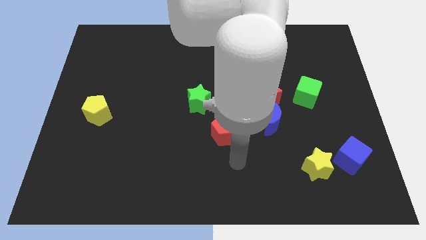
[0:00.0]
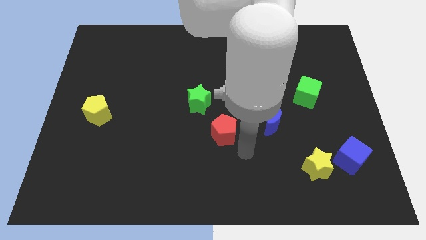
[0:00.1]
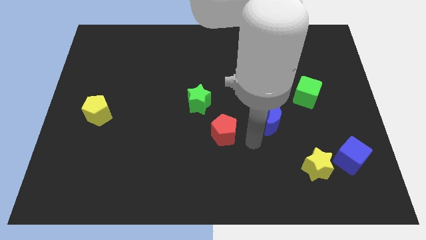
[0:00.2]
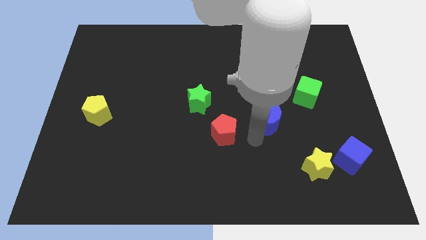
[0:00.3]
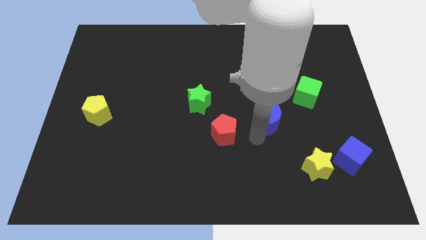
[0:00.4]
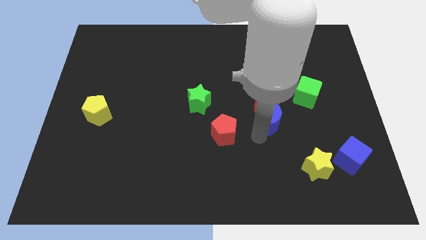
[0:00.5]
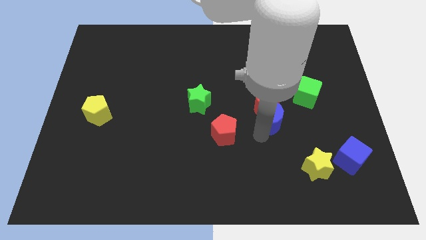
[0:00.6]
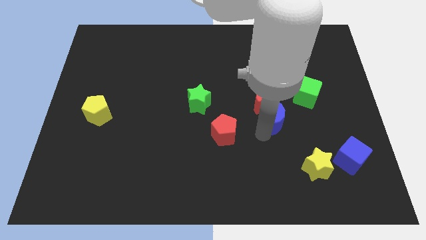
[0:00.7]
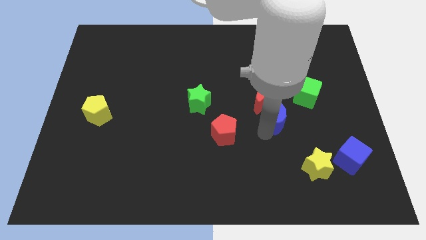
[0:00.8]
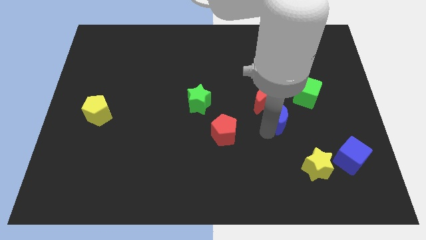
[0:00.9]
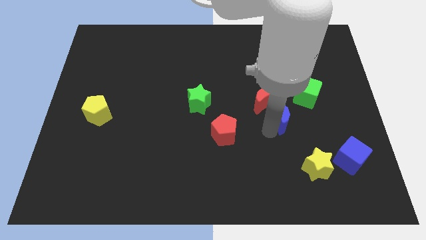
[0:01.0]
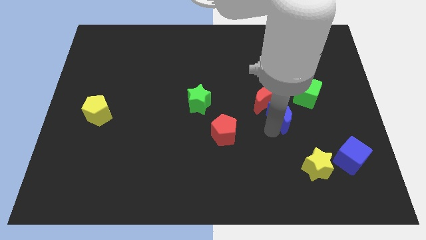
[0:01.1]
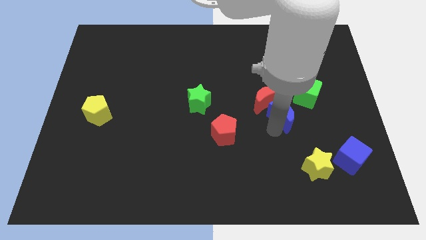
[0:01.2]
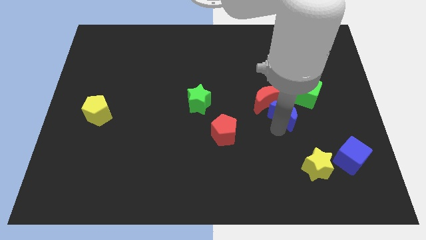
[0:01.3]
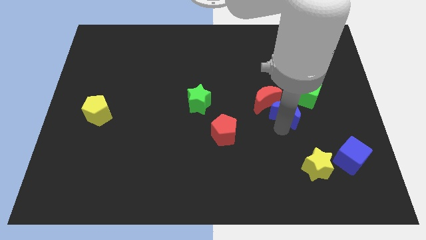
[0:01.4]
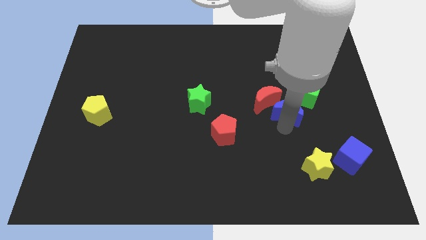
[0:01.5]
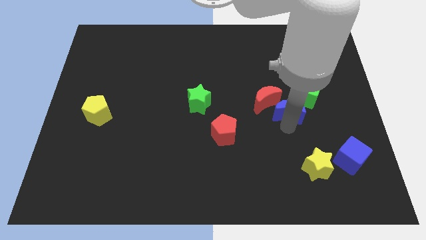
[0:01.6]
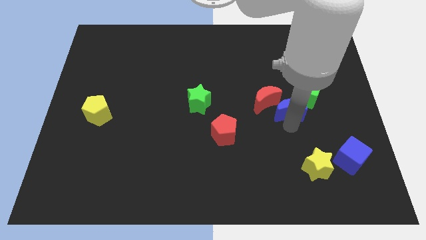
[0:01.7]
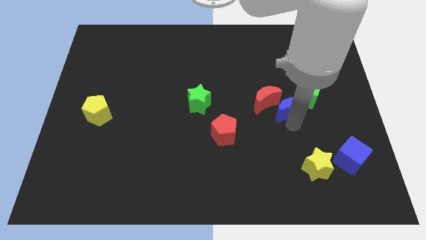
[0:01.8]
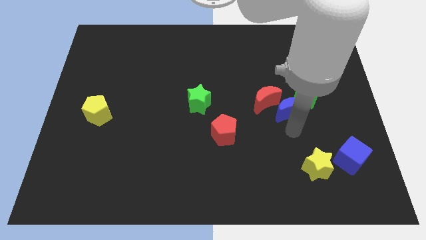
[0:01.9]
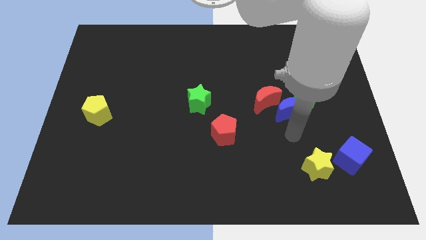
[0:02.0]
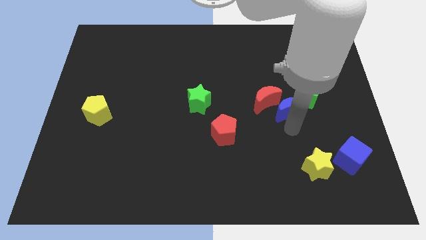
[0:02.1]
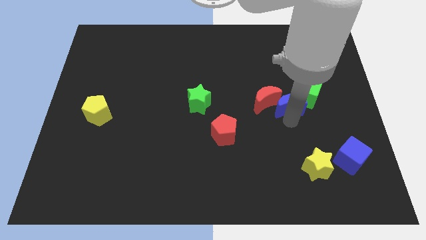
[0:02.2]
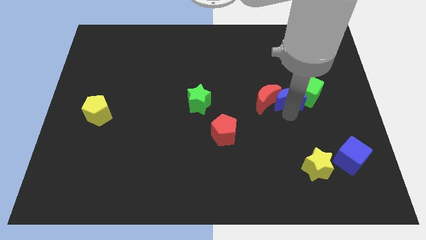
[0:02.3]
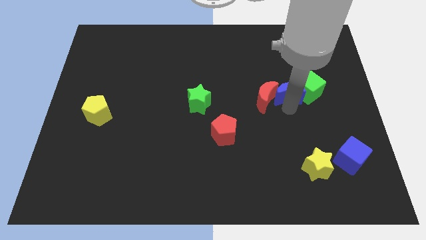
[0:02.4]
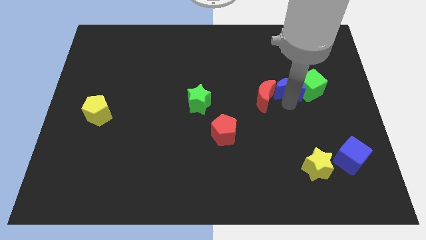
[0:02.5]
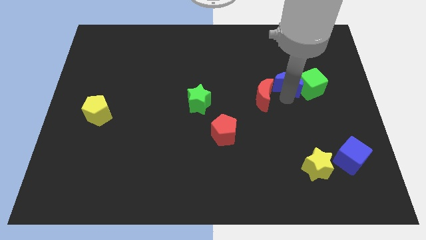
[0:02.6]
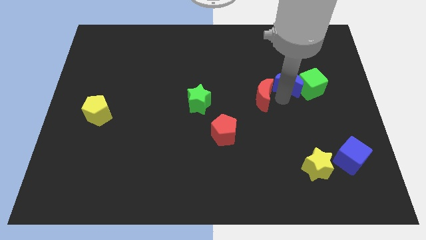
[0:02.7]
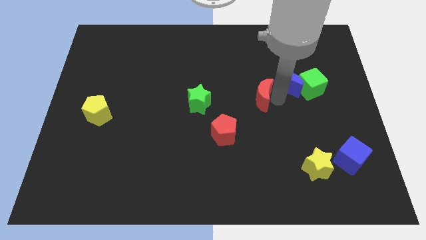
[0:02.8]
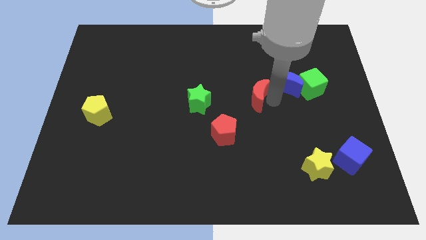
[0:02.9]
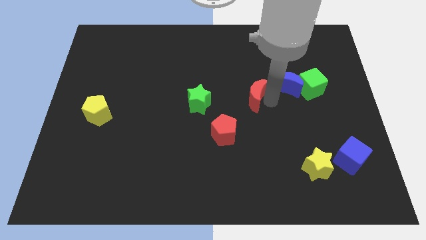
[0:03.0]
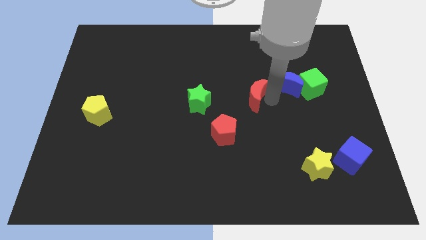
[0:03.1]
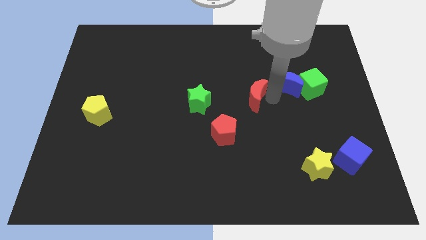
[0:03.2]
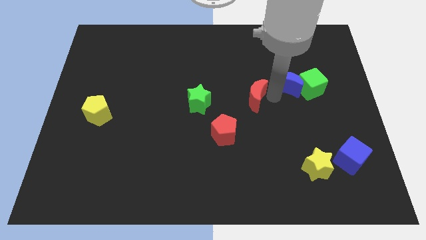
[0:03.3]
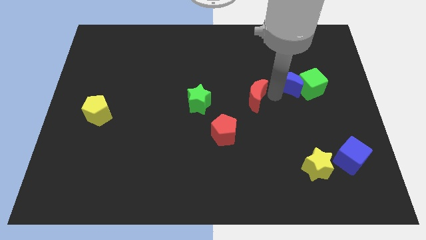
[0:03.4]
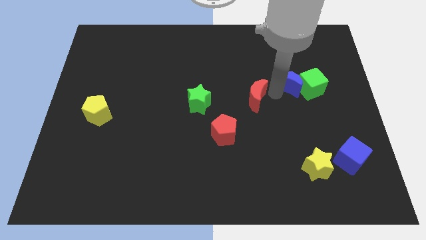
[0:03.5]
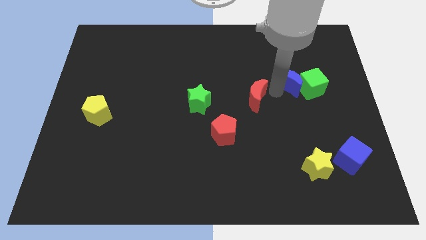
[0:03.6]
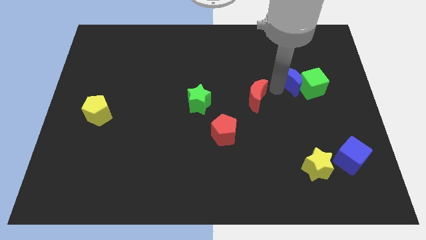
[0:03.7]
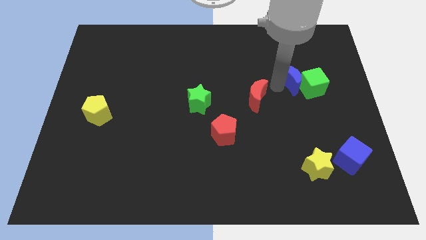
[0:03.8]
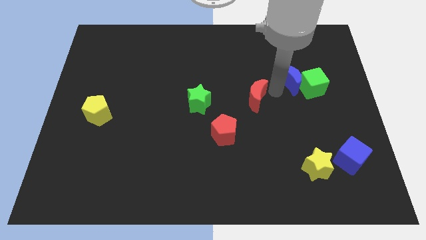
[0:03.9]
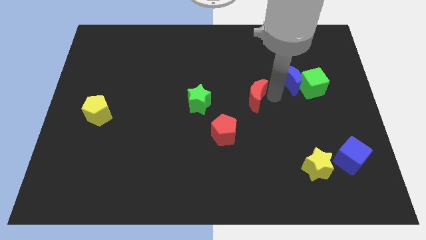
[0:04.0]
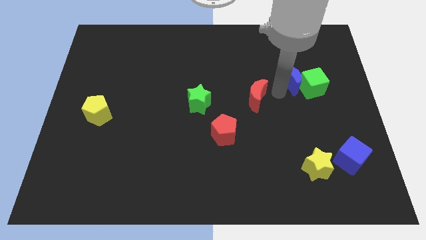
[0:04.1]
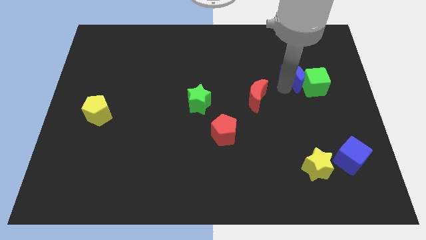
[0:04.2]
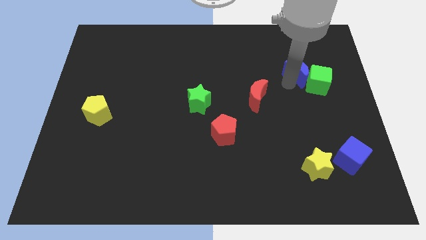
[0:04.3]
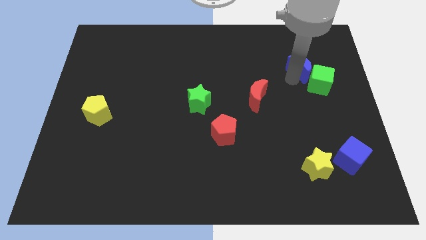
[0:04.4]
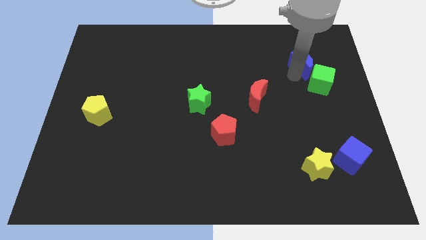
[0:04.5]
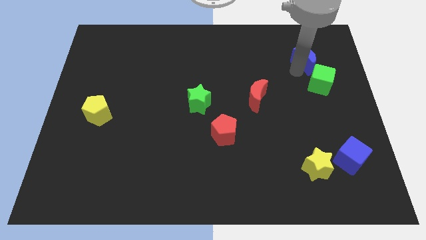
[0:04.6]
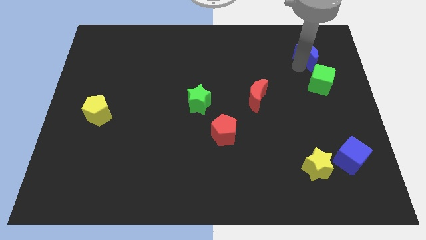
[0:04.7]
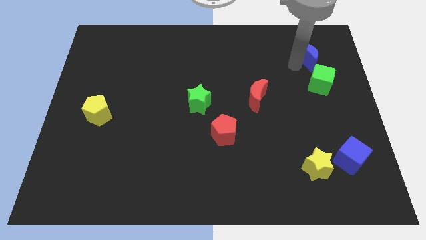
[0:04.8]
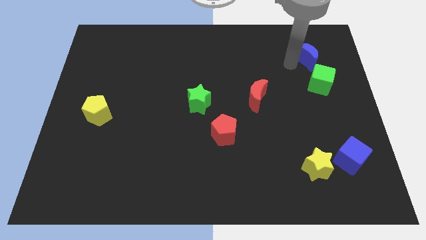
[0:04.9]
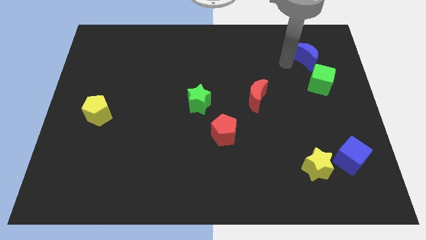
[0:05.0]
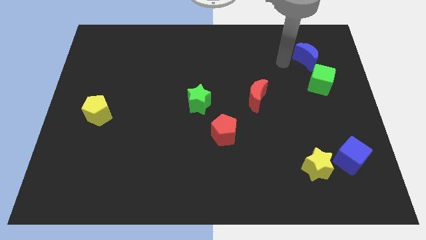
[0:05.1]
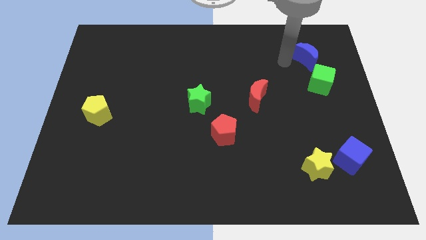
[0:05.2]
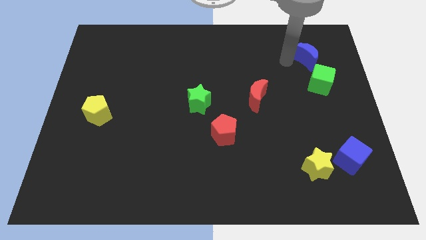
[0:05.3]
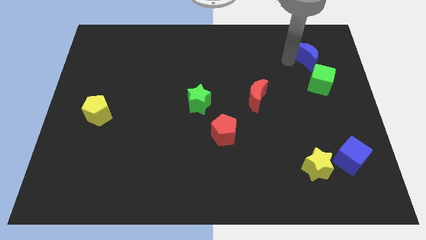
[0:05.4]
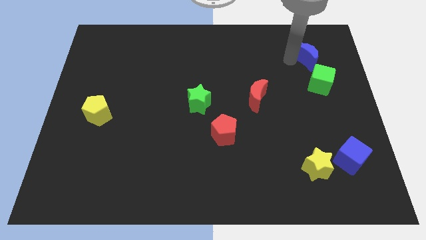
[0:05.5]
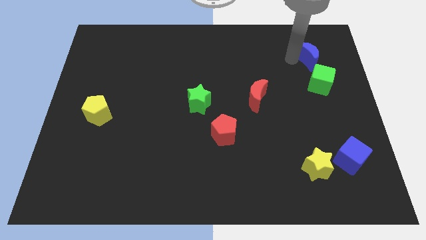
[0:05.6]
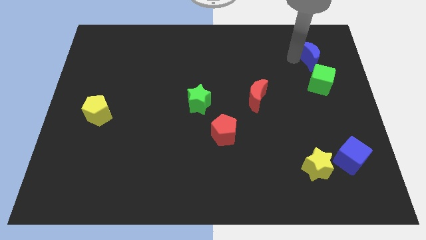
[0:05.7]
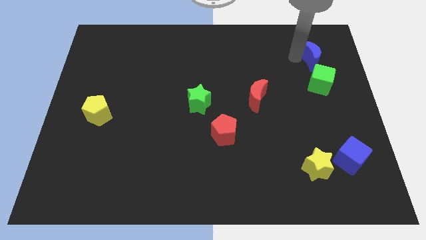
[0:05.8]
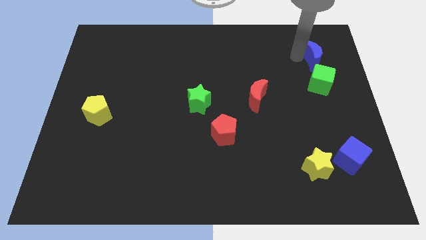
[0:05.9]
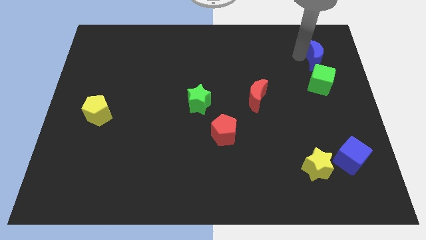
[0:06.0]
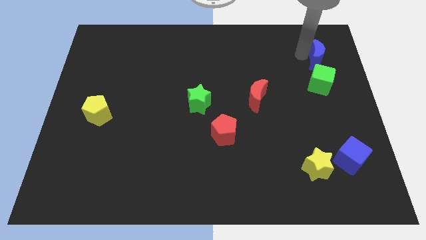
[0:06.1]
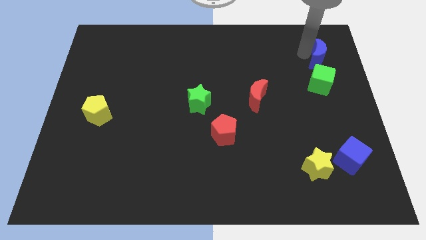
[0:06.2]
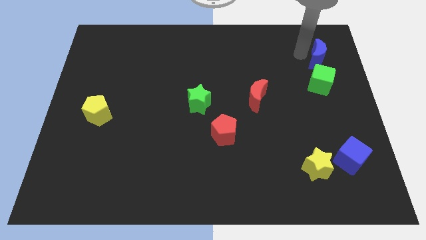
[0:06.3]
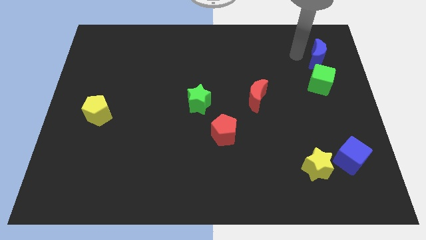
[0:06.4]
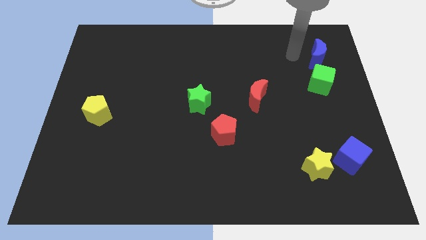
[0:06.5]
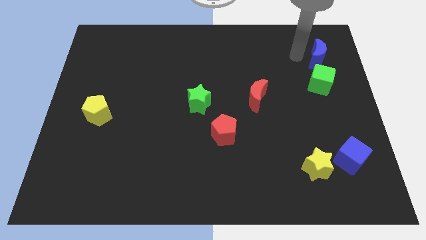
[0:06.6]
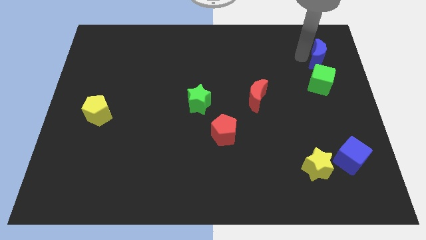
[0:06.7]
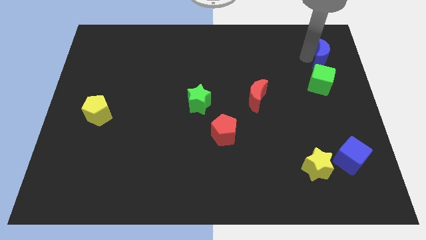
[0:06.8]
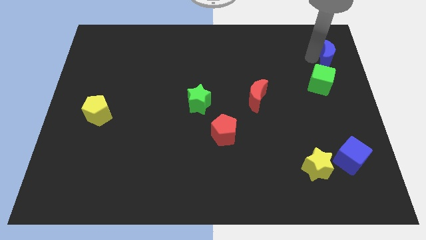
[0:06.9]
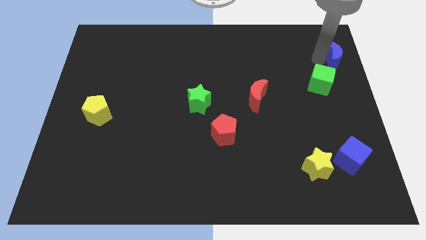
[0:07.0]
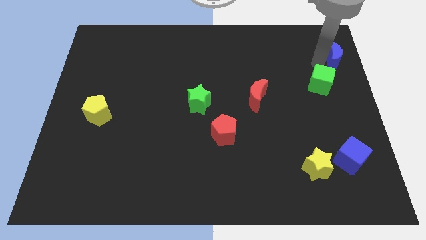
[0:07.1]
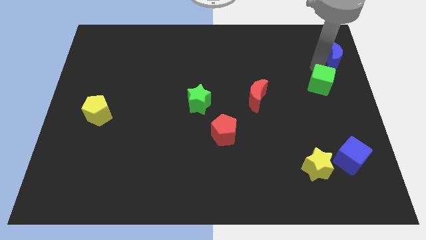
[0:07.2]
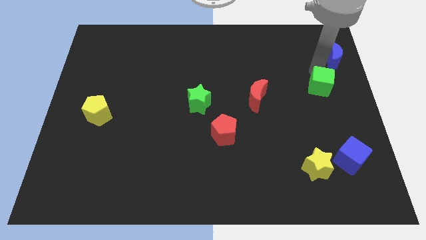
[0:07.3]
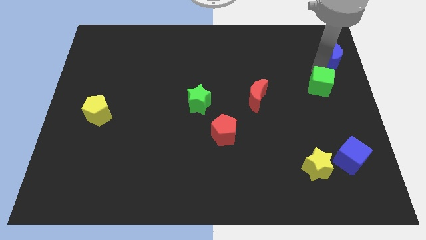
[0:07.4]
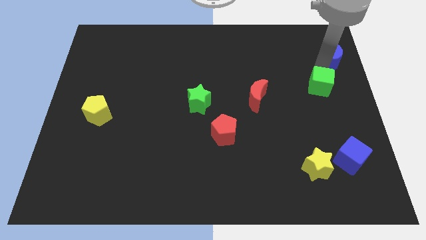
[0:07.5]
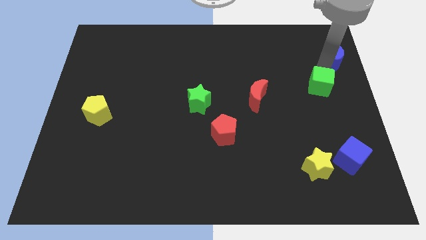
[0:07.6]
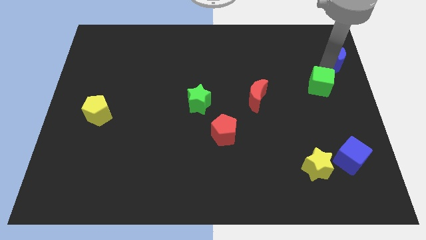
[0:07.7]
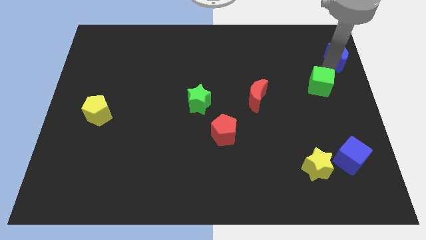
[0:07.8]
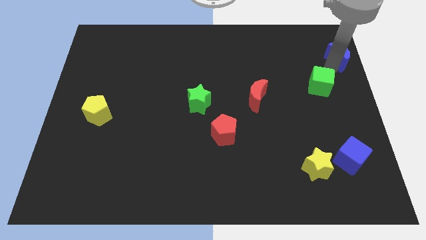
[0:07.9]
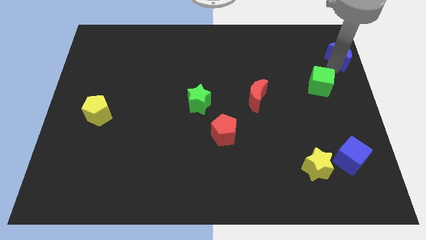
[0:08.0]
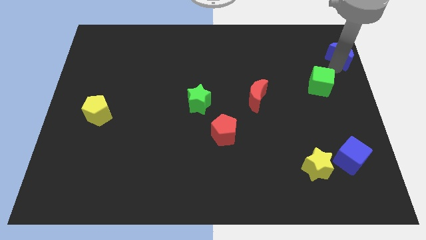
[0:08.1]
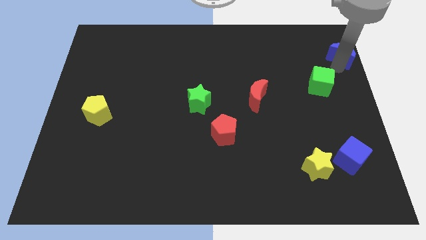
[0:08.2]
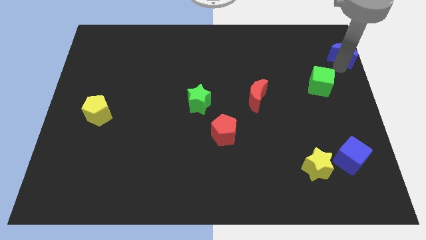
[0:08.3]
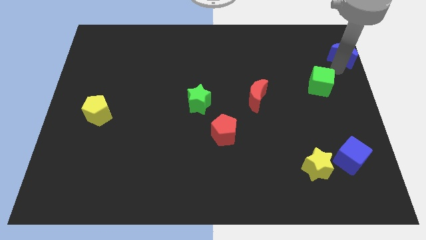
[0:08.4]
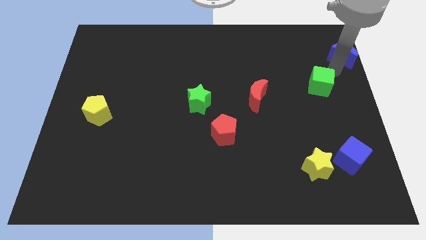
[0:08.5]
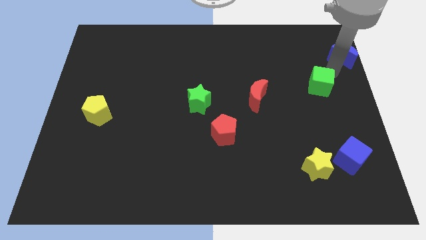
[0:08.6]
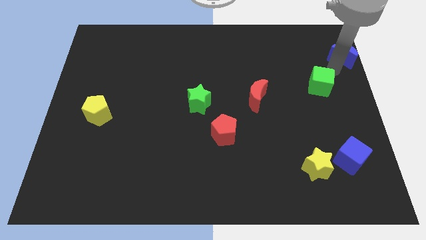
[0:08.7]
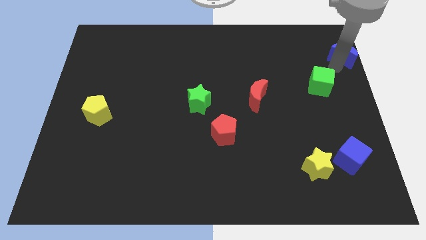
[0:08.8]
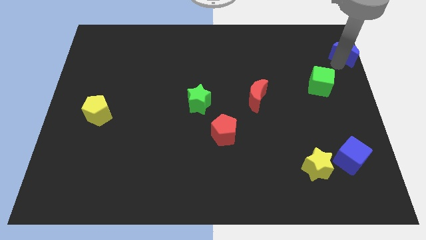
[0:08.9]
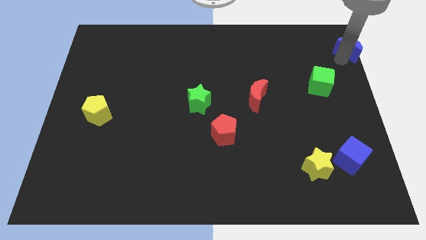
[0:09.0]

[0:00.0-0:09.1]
put the blue moon to the upper right corner
